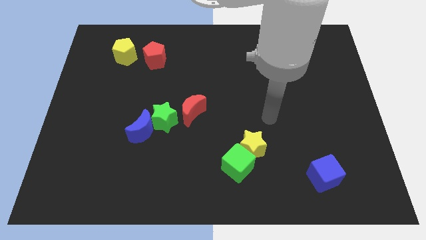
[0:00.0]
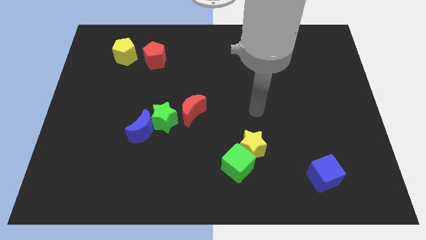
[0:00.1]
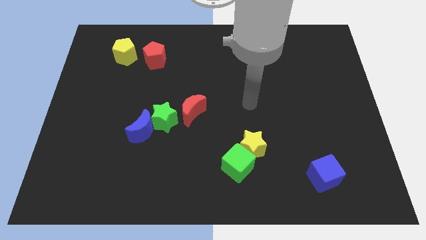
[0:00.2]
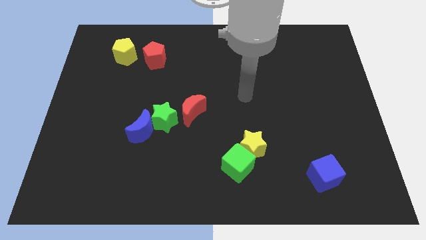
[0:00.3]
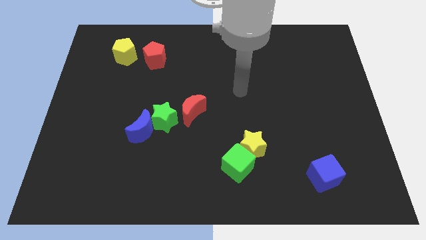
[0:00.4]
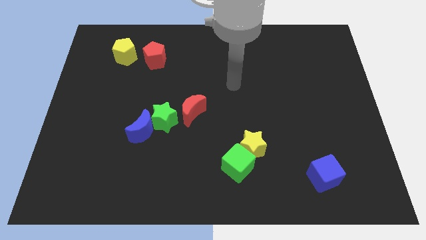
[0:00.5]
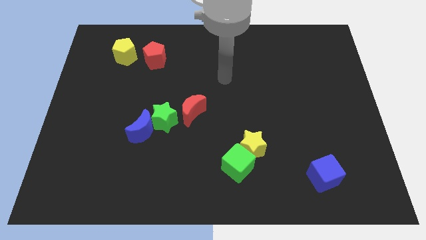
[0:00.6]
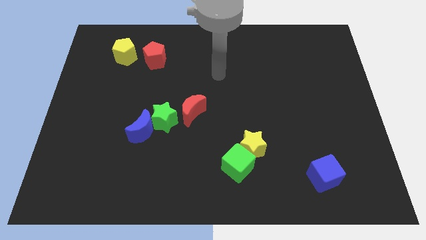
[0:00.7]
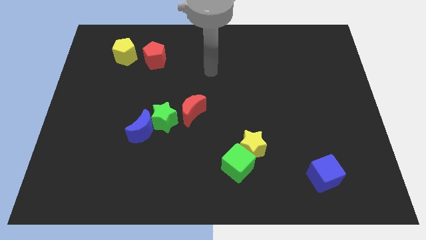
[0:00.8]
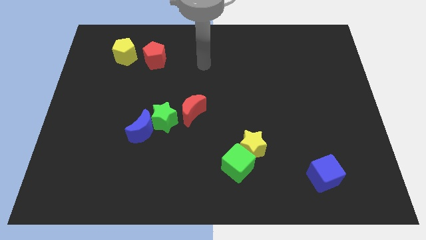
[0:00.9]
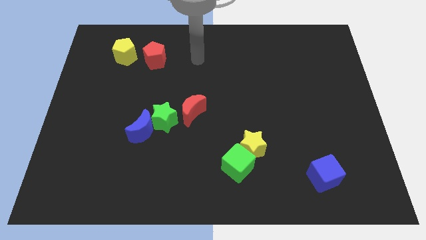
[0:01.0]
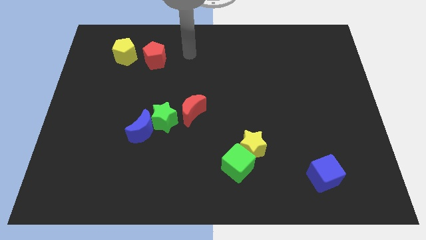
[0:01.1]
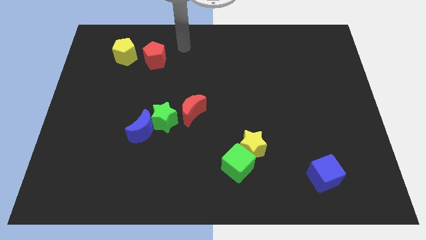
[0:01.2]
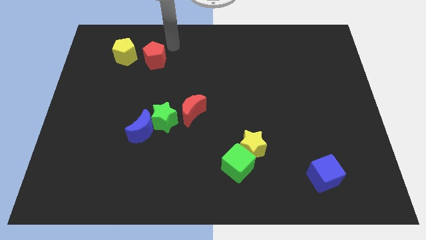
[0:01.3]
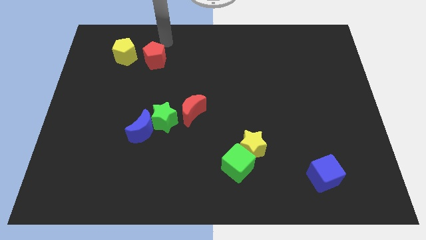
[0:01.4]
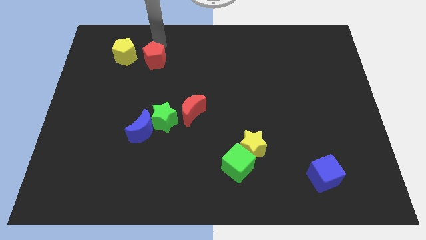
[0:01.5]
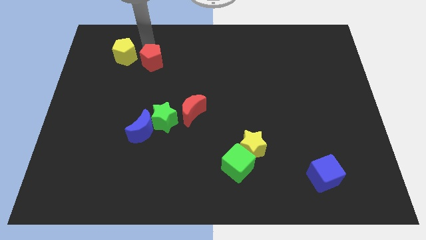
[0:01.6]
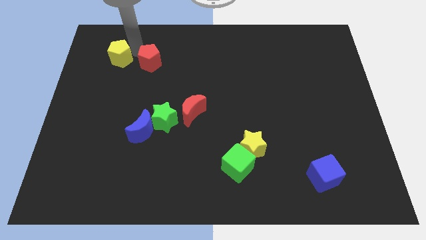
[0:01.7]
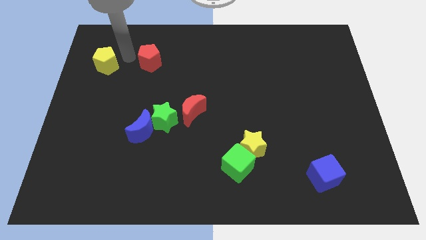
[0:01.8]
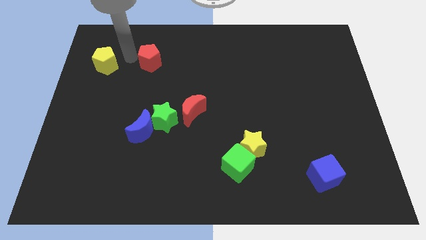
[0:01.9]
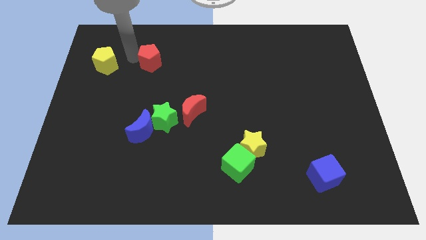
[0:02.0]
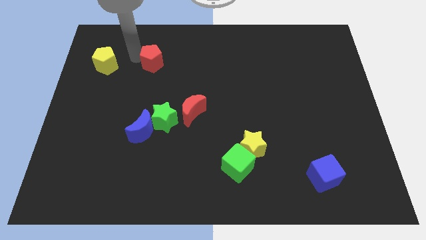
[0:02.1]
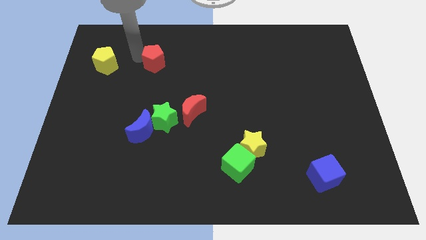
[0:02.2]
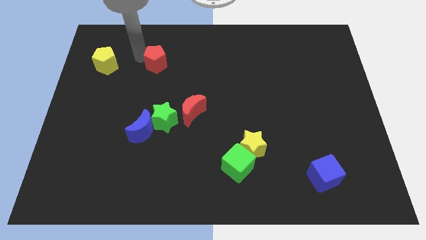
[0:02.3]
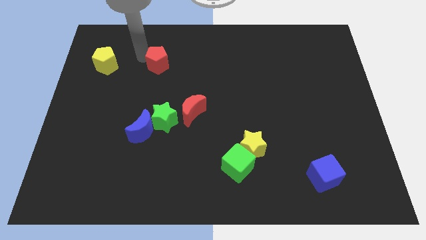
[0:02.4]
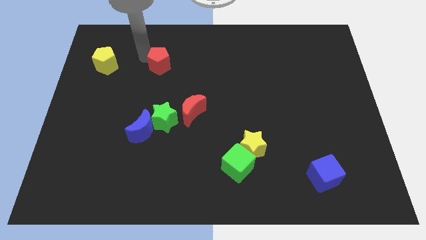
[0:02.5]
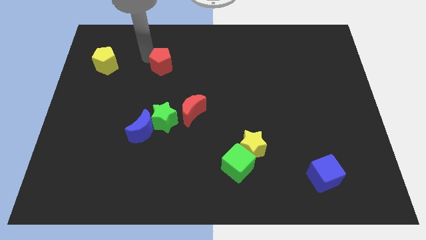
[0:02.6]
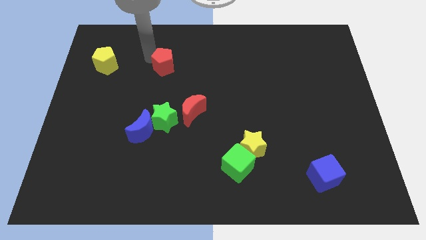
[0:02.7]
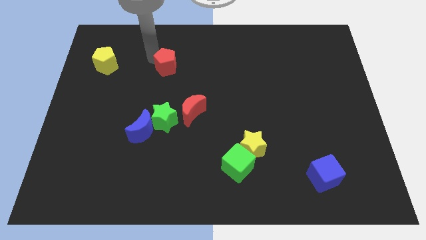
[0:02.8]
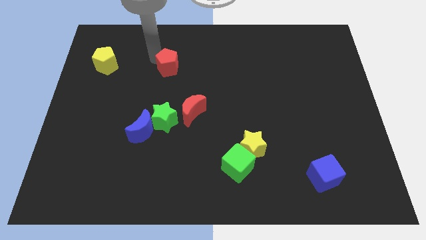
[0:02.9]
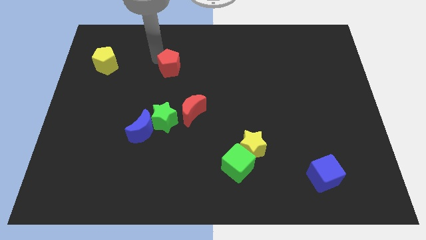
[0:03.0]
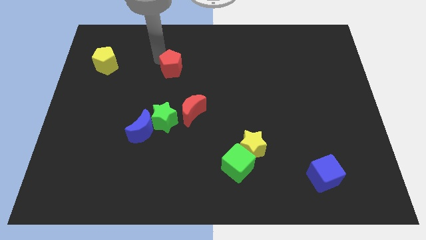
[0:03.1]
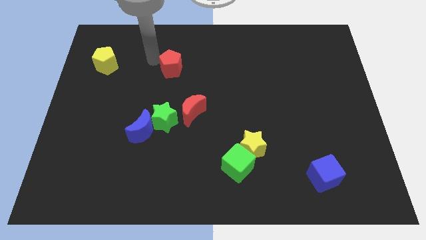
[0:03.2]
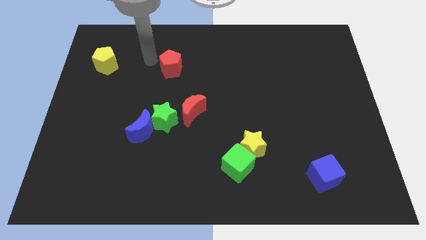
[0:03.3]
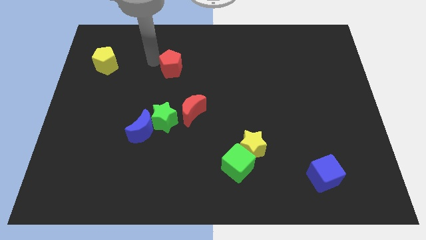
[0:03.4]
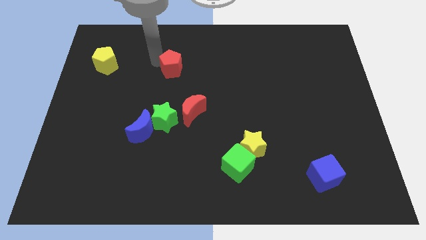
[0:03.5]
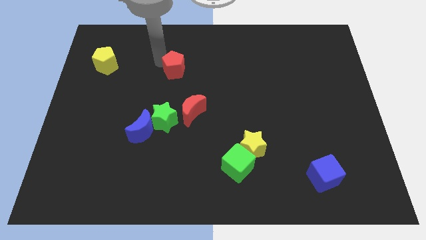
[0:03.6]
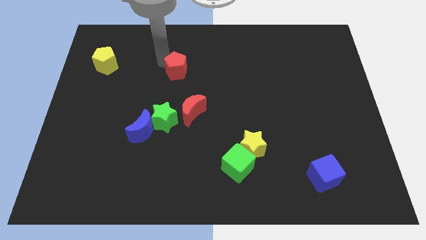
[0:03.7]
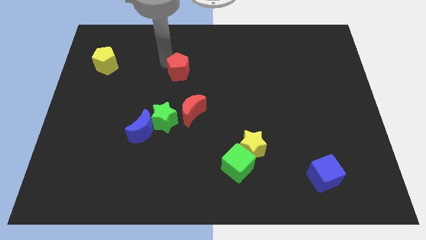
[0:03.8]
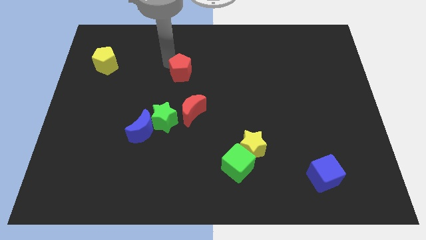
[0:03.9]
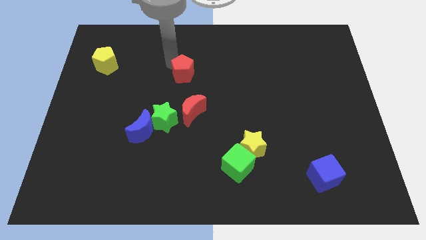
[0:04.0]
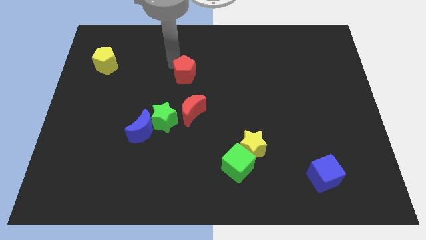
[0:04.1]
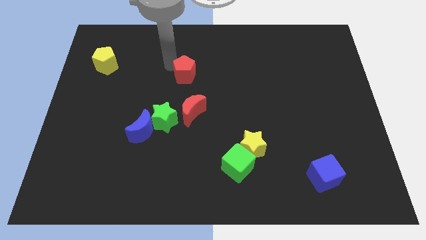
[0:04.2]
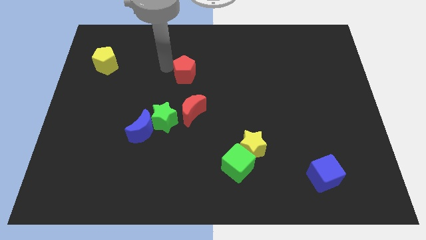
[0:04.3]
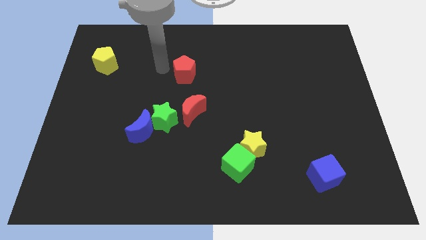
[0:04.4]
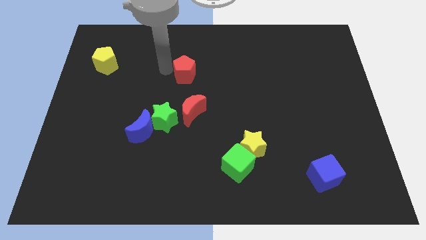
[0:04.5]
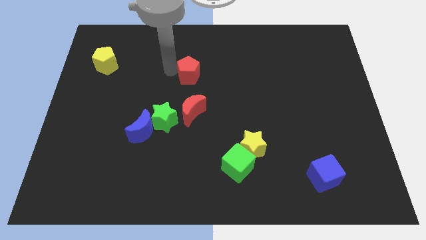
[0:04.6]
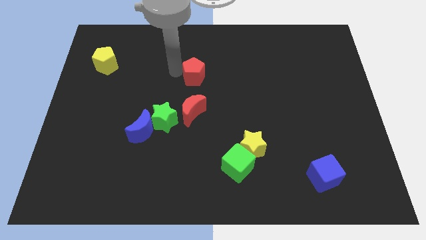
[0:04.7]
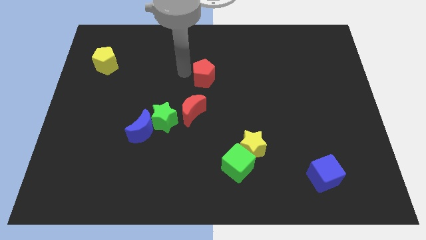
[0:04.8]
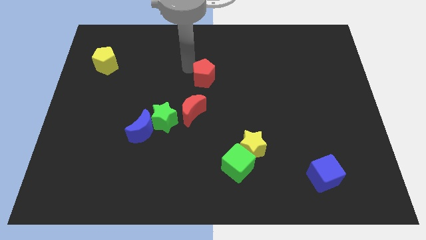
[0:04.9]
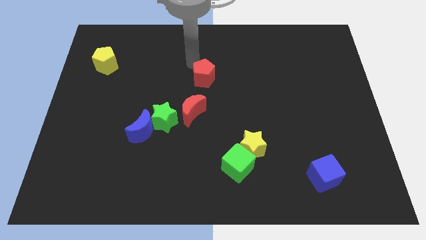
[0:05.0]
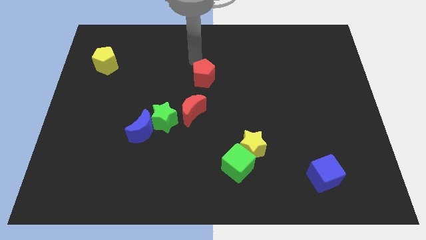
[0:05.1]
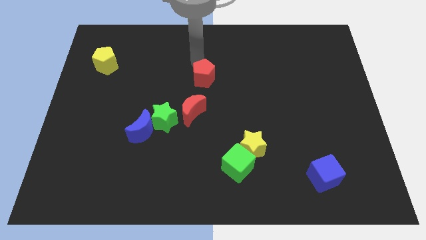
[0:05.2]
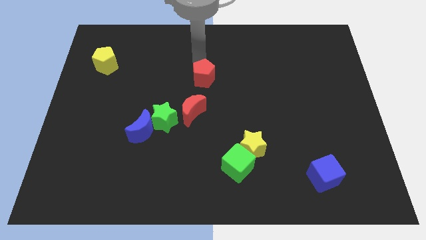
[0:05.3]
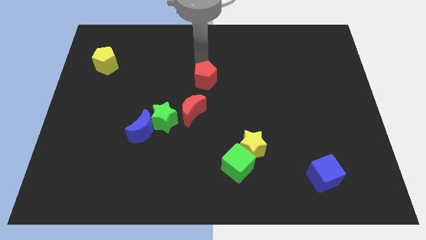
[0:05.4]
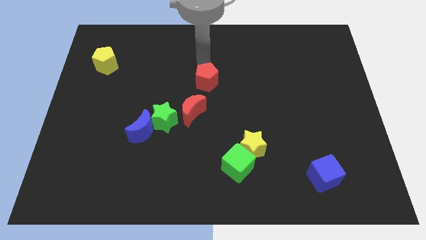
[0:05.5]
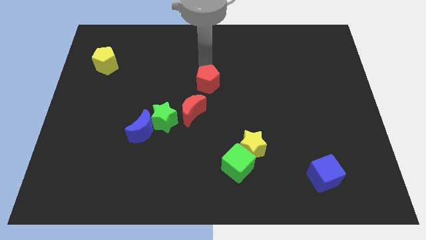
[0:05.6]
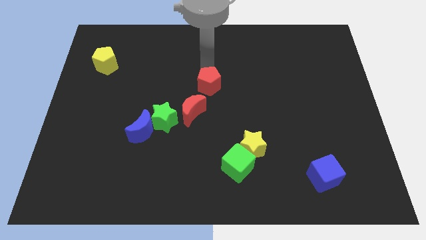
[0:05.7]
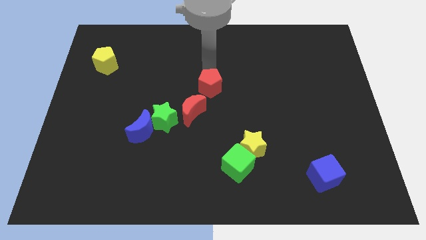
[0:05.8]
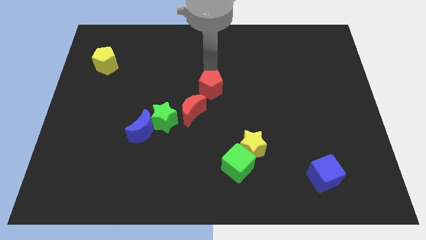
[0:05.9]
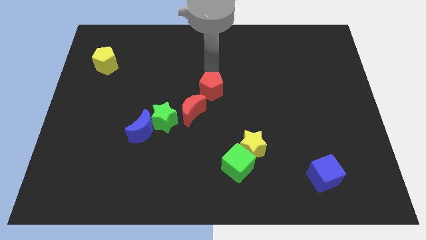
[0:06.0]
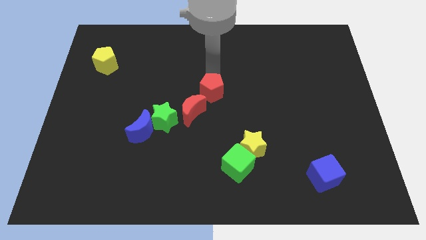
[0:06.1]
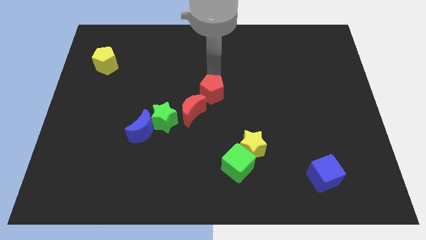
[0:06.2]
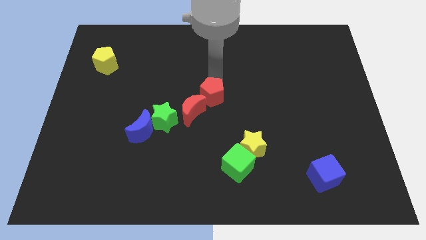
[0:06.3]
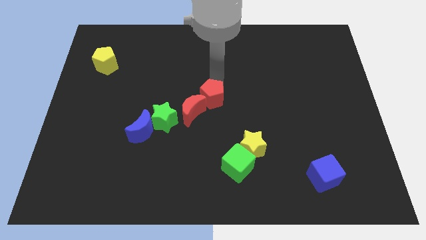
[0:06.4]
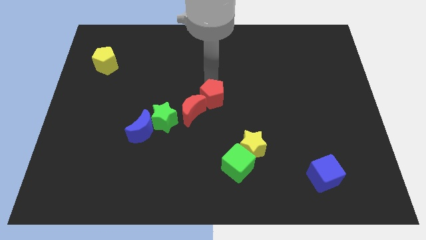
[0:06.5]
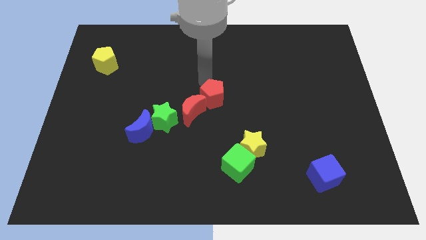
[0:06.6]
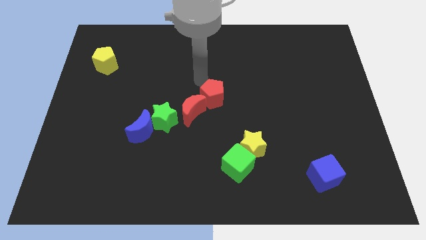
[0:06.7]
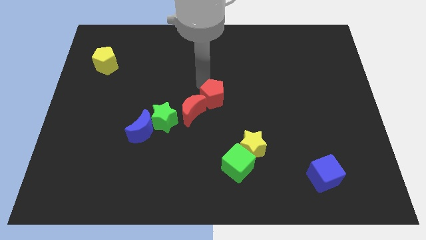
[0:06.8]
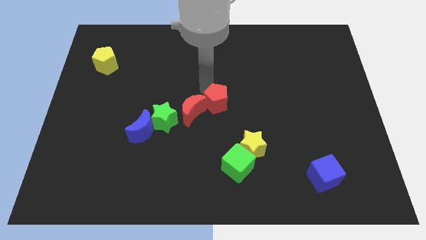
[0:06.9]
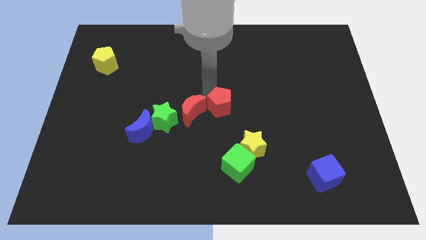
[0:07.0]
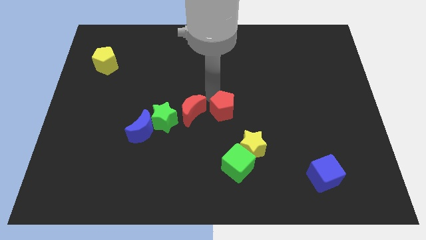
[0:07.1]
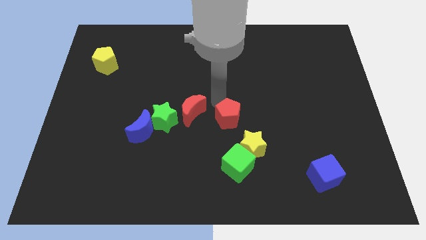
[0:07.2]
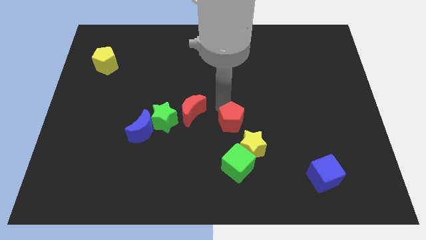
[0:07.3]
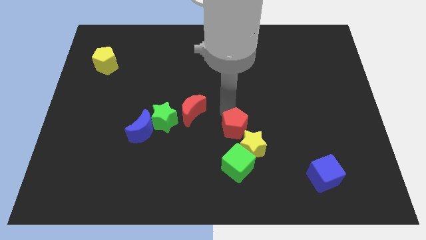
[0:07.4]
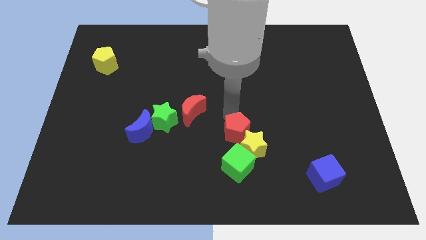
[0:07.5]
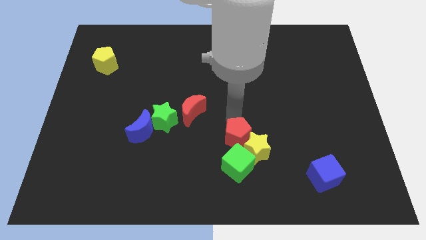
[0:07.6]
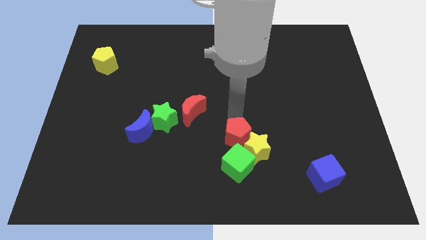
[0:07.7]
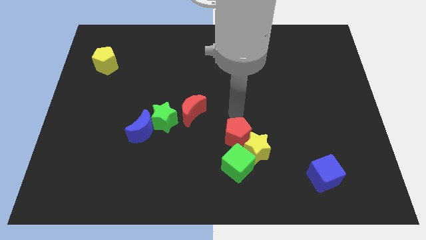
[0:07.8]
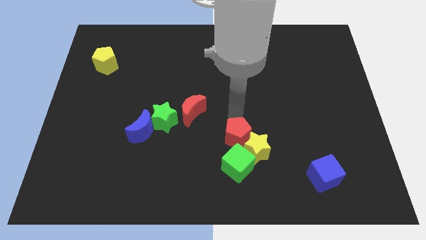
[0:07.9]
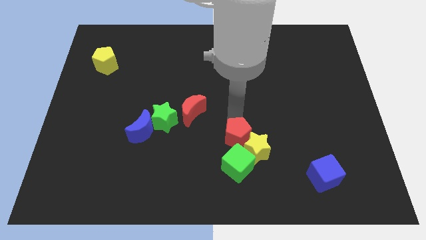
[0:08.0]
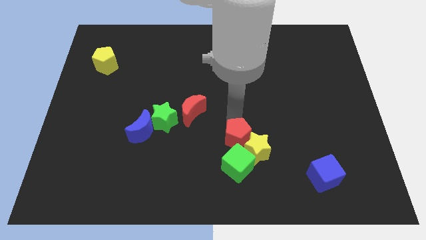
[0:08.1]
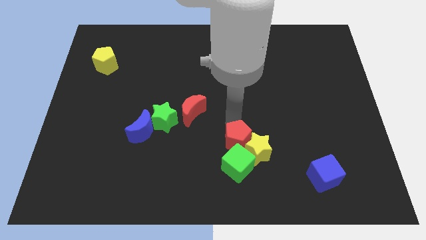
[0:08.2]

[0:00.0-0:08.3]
put the red pentagon towards the green cube
